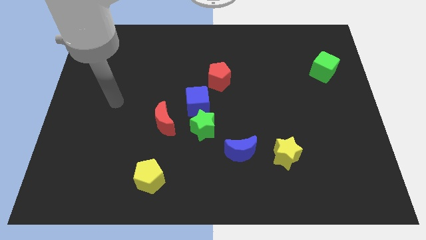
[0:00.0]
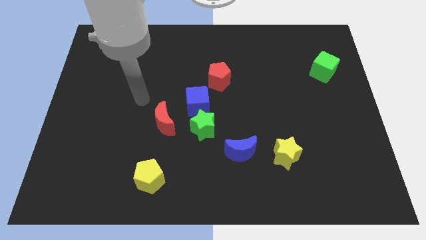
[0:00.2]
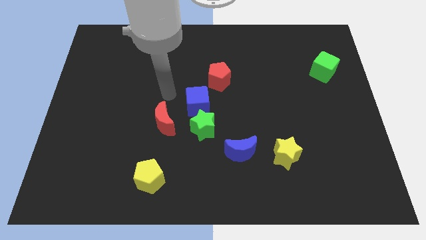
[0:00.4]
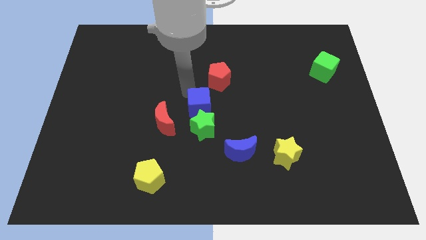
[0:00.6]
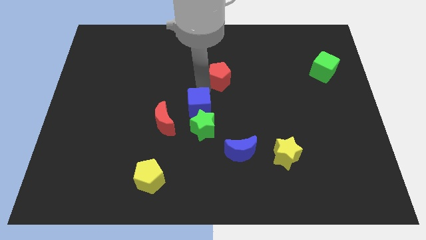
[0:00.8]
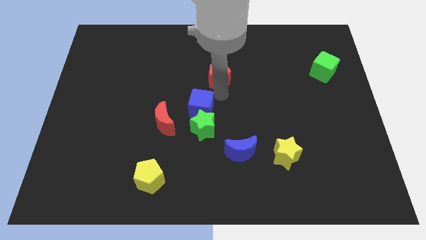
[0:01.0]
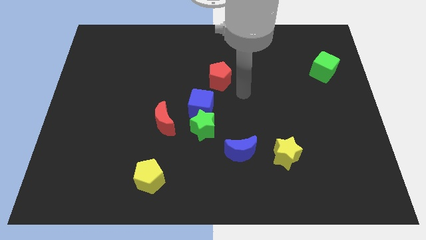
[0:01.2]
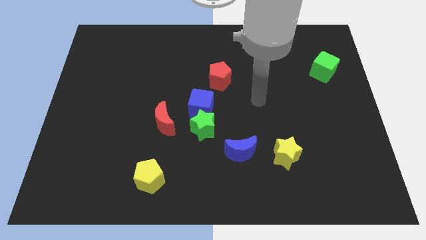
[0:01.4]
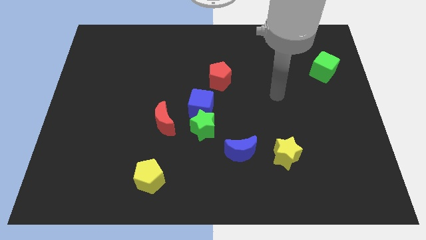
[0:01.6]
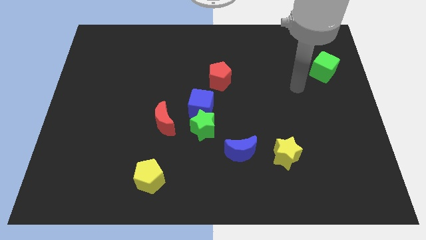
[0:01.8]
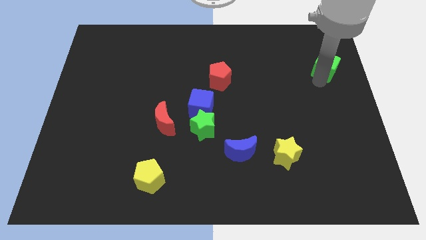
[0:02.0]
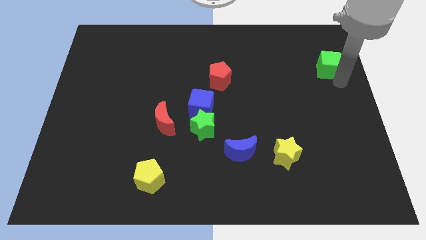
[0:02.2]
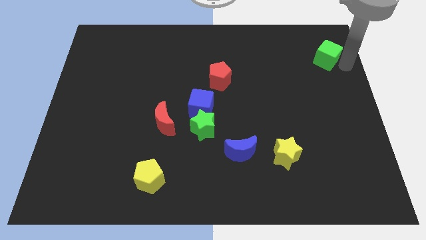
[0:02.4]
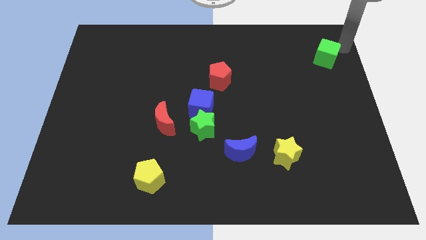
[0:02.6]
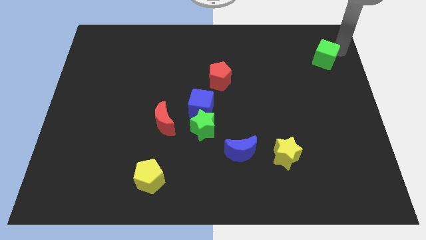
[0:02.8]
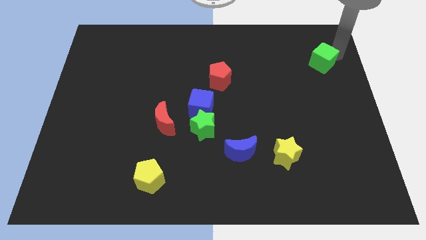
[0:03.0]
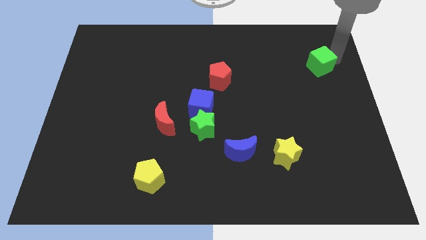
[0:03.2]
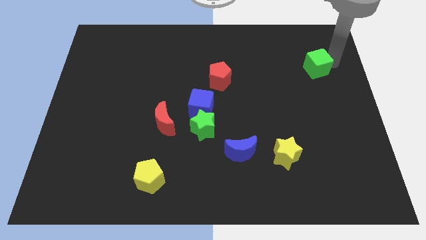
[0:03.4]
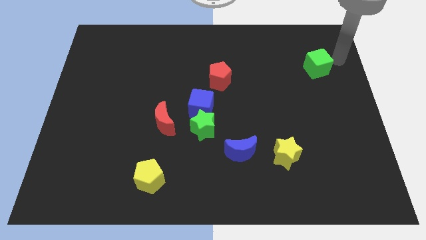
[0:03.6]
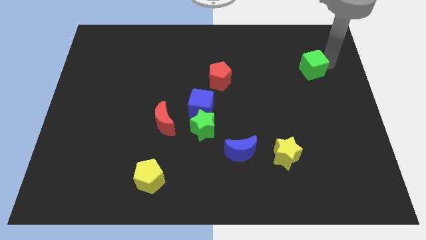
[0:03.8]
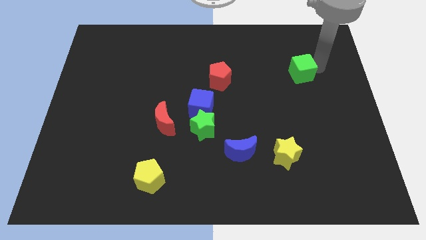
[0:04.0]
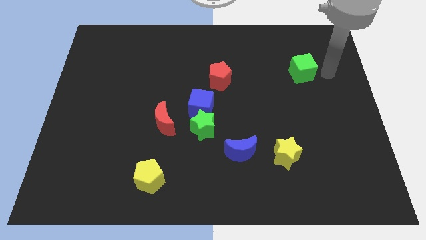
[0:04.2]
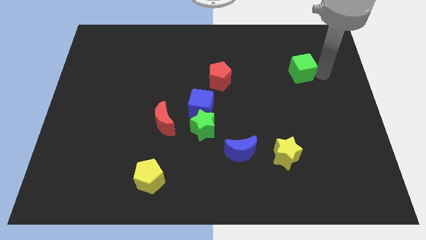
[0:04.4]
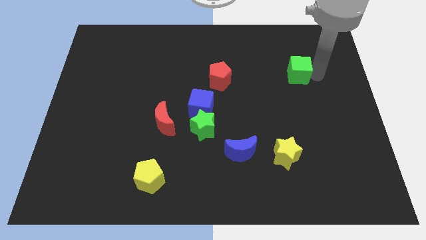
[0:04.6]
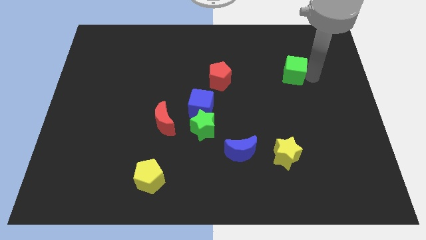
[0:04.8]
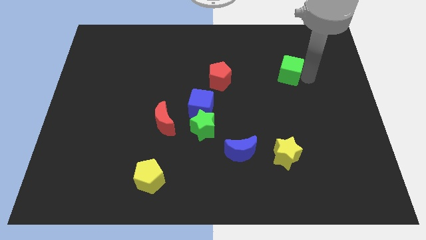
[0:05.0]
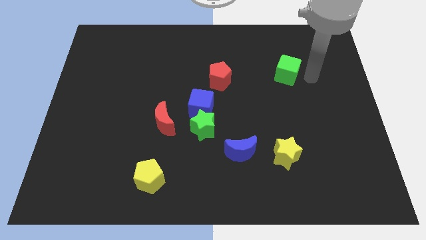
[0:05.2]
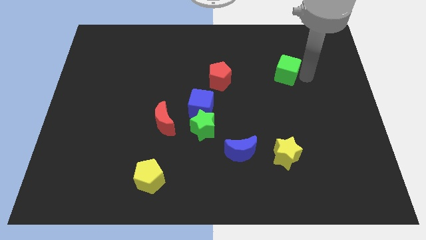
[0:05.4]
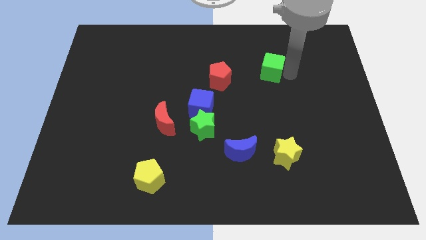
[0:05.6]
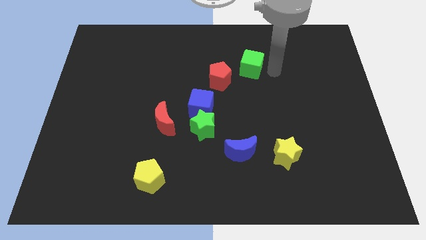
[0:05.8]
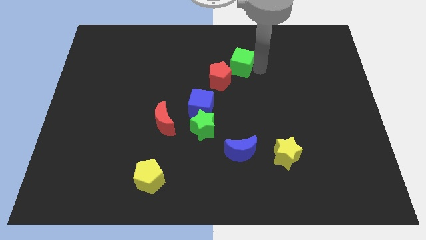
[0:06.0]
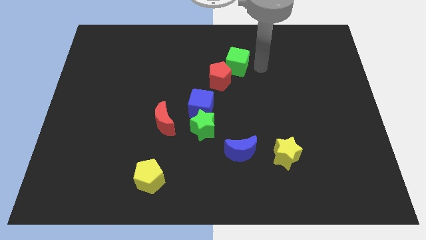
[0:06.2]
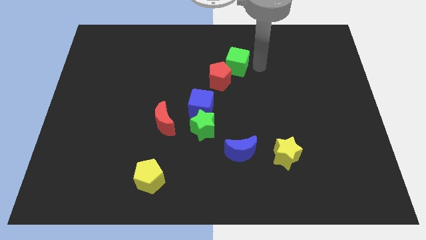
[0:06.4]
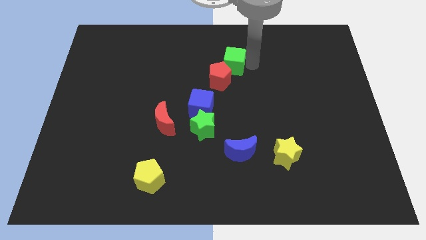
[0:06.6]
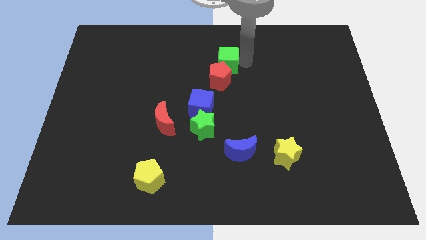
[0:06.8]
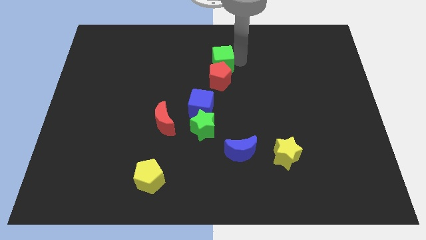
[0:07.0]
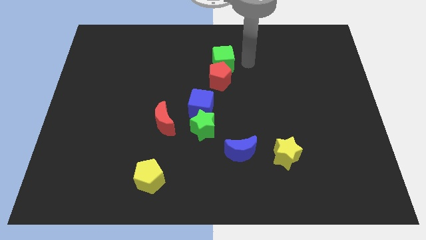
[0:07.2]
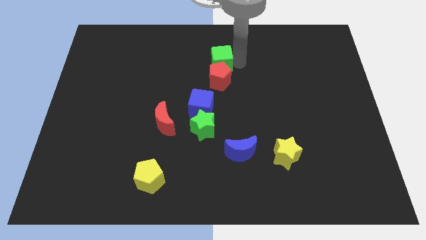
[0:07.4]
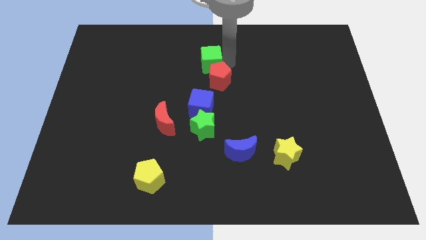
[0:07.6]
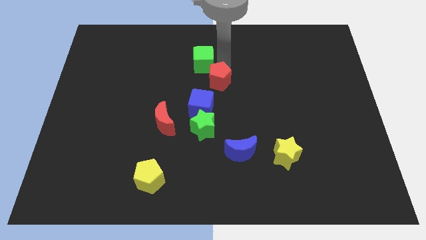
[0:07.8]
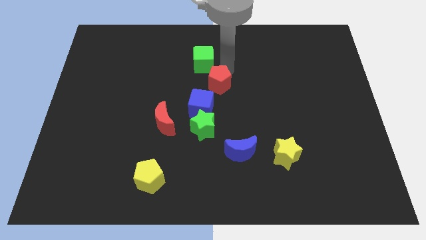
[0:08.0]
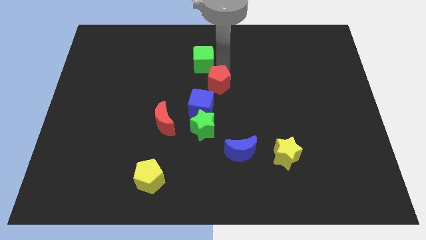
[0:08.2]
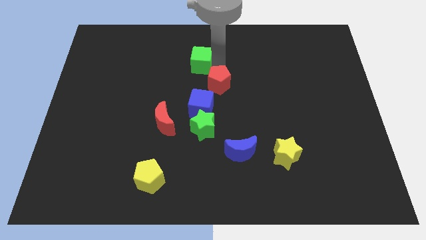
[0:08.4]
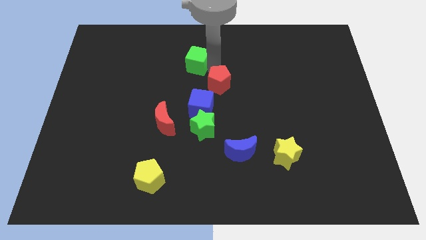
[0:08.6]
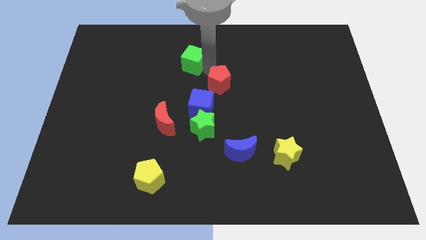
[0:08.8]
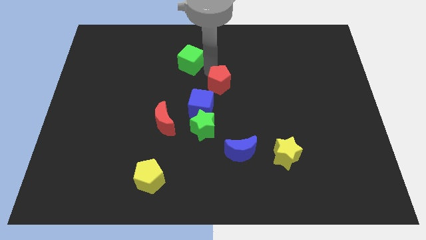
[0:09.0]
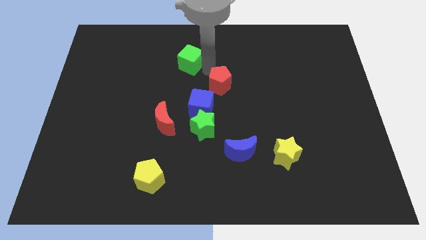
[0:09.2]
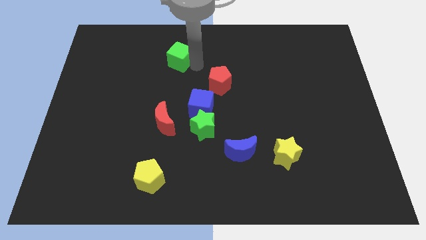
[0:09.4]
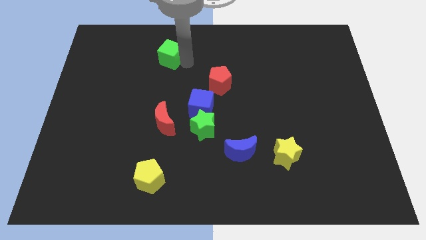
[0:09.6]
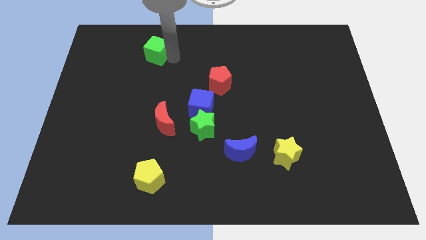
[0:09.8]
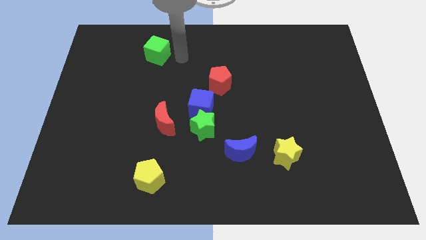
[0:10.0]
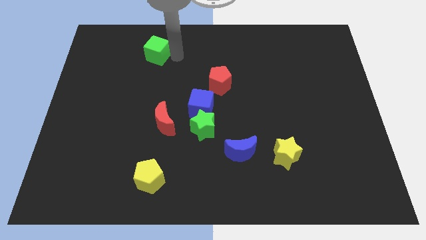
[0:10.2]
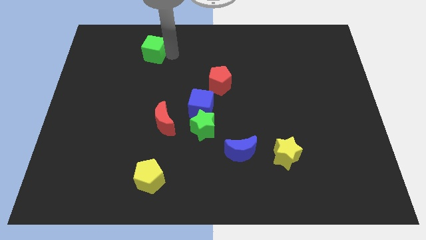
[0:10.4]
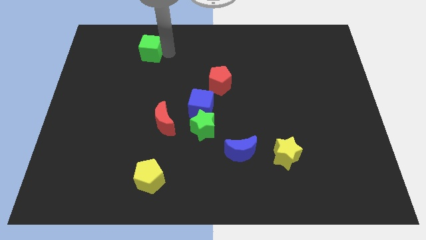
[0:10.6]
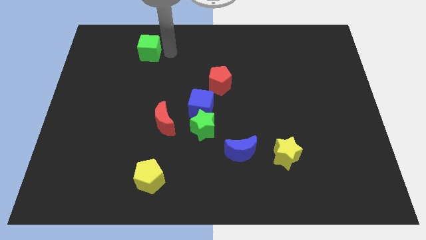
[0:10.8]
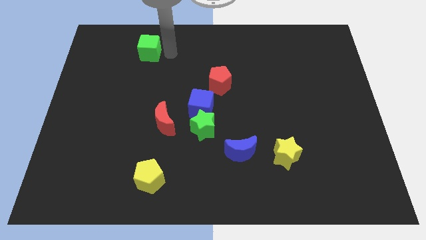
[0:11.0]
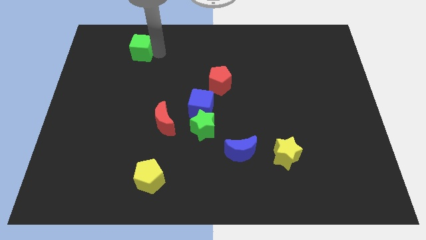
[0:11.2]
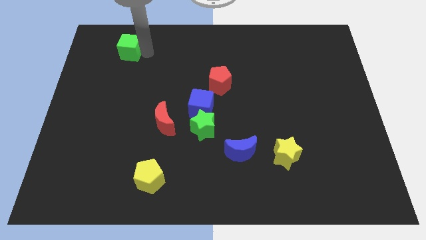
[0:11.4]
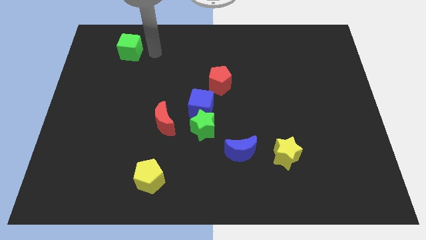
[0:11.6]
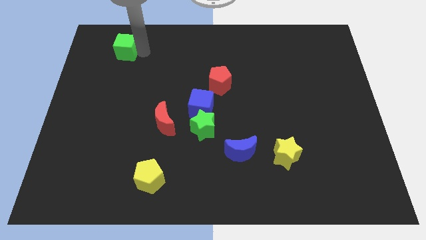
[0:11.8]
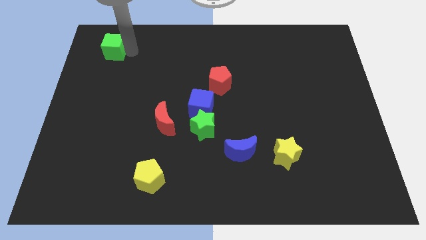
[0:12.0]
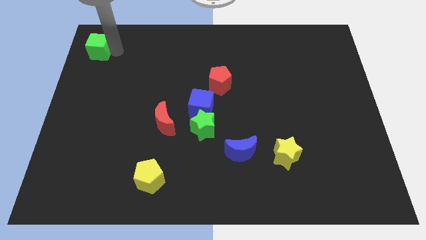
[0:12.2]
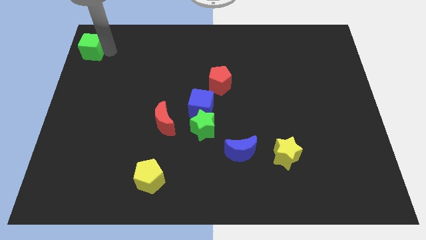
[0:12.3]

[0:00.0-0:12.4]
move the green cube to the top left
